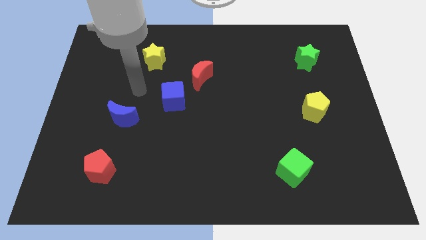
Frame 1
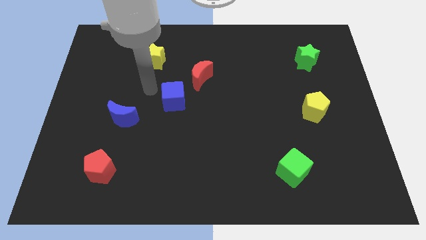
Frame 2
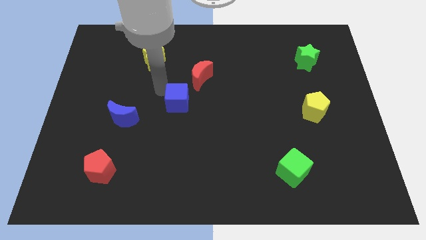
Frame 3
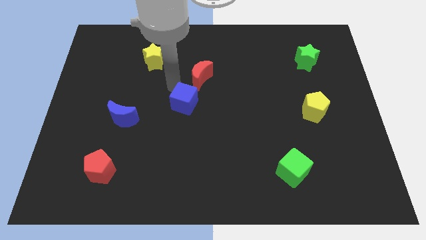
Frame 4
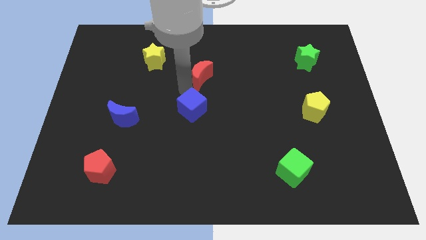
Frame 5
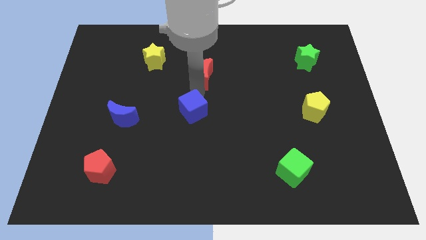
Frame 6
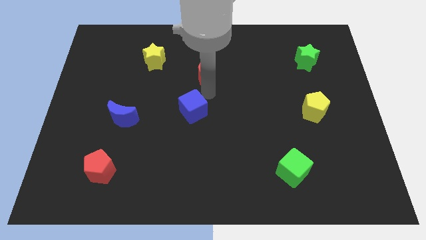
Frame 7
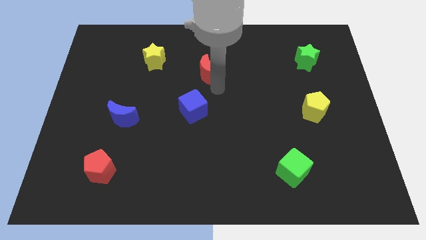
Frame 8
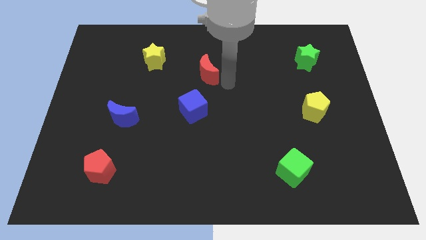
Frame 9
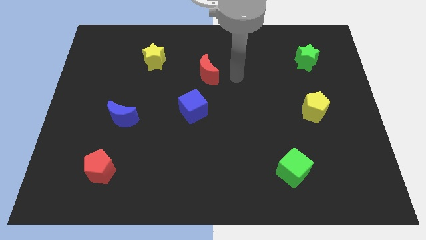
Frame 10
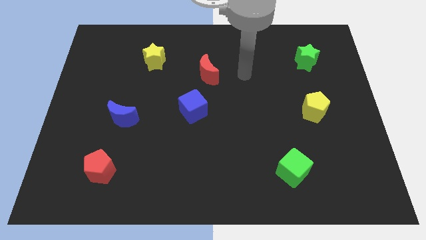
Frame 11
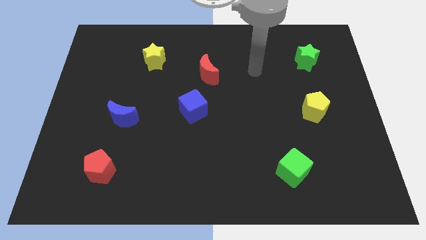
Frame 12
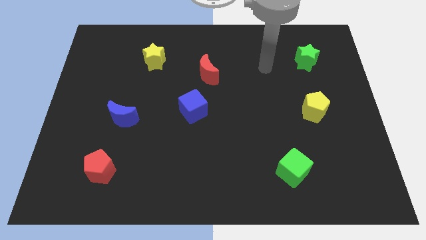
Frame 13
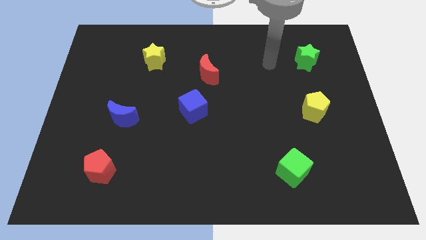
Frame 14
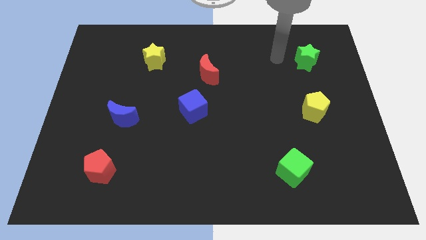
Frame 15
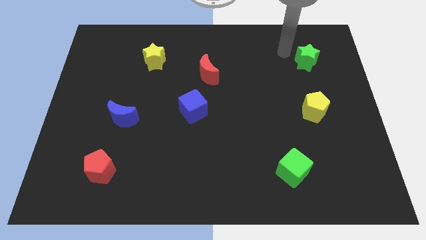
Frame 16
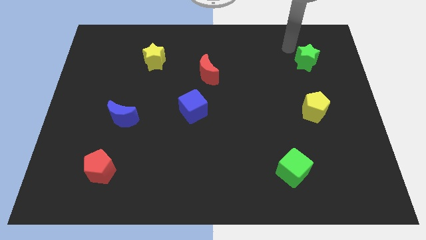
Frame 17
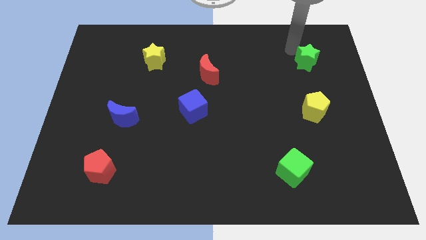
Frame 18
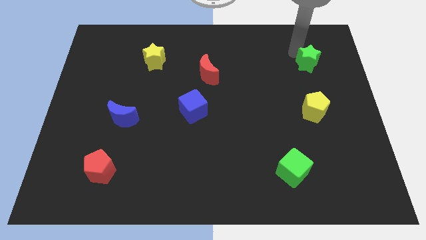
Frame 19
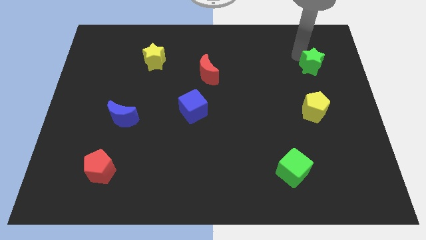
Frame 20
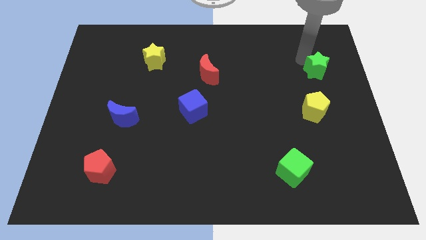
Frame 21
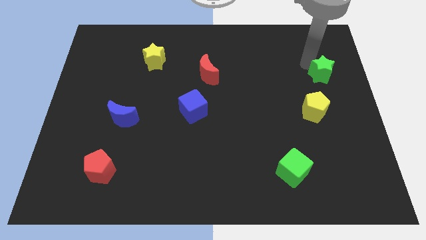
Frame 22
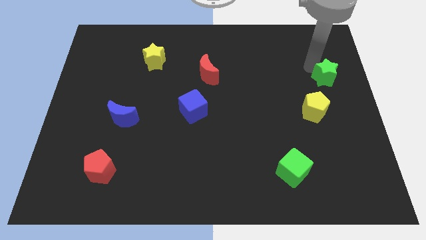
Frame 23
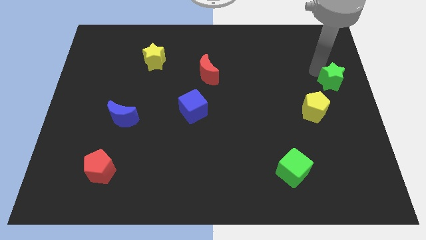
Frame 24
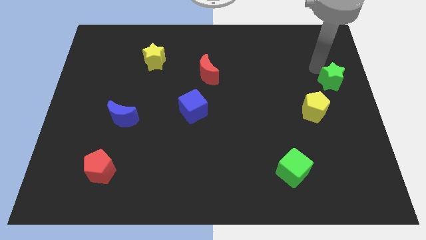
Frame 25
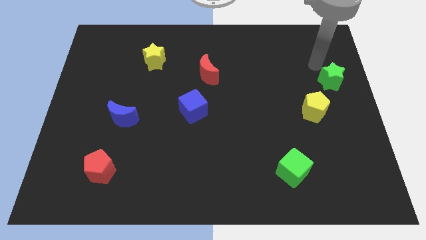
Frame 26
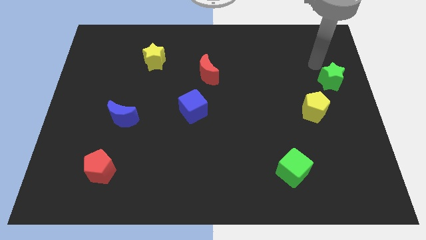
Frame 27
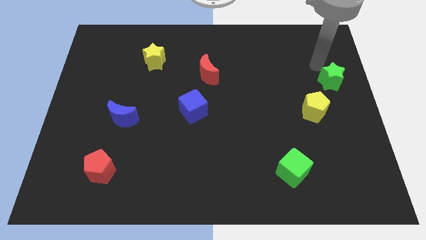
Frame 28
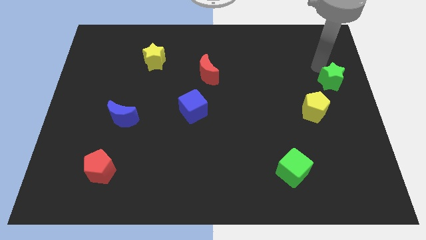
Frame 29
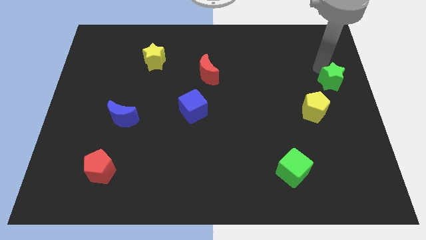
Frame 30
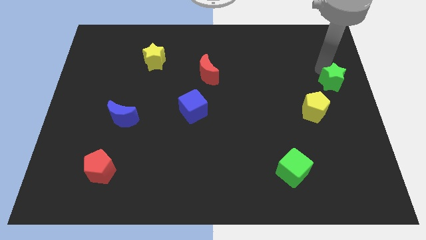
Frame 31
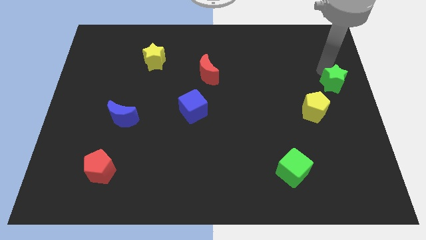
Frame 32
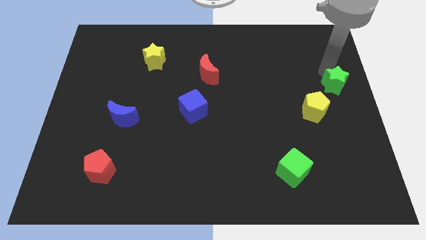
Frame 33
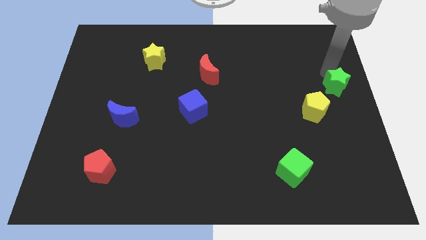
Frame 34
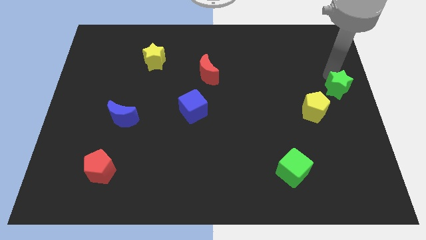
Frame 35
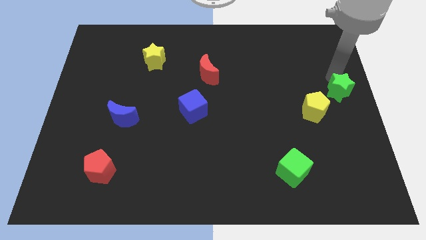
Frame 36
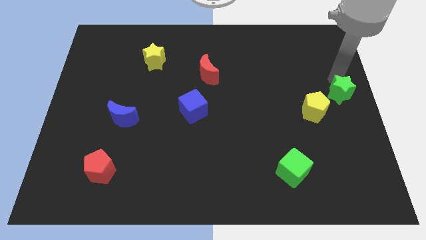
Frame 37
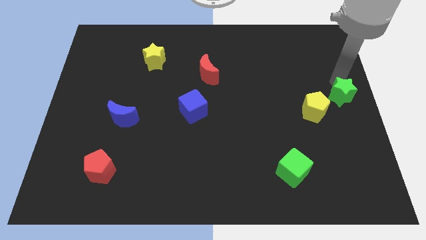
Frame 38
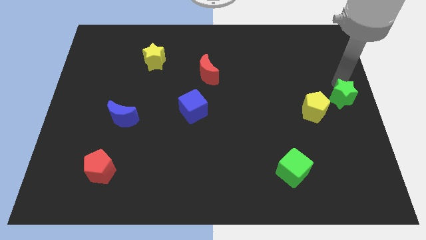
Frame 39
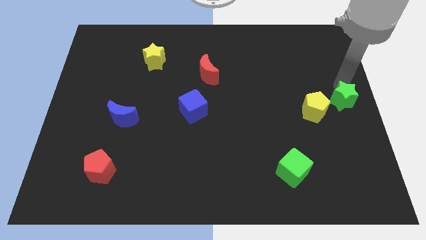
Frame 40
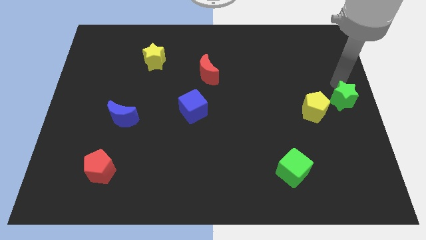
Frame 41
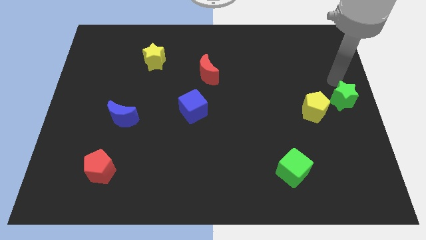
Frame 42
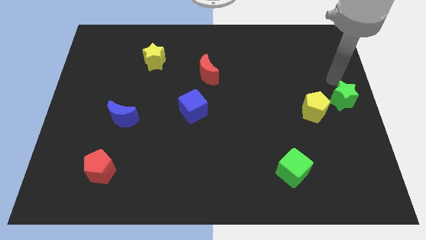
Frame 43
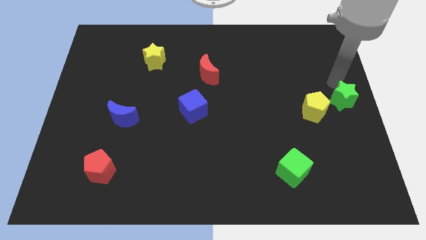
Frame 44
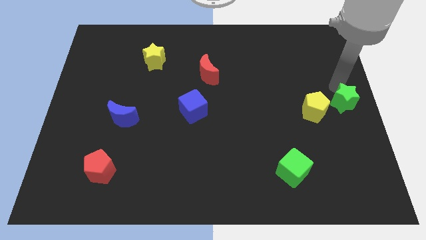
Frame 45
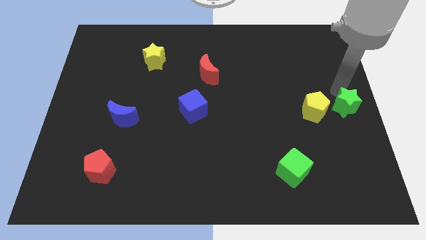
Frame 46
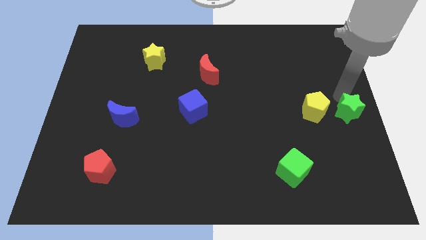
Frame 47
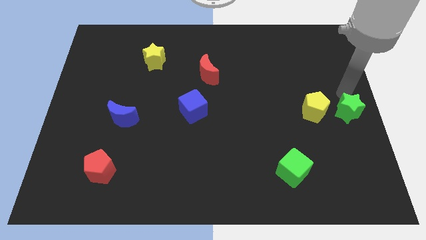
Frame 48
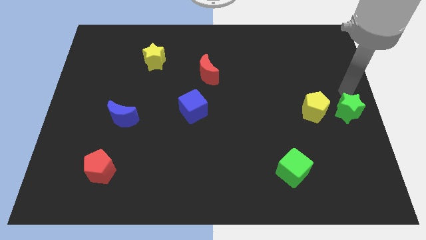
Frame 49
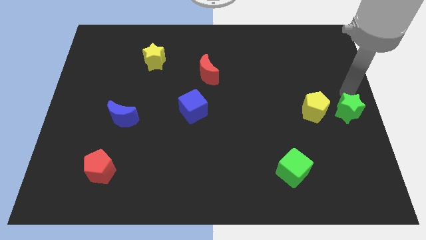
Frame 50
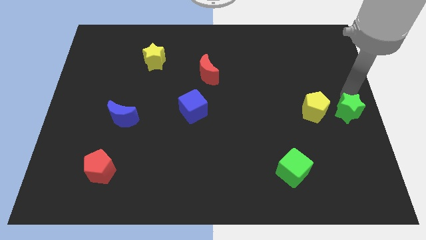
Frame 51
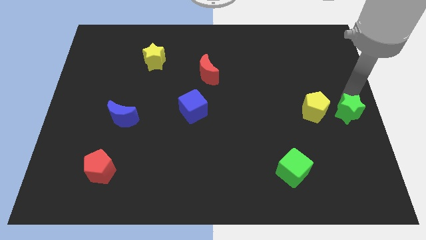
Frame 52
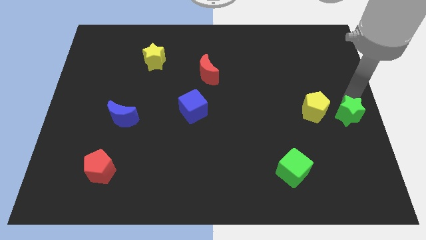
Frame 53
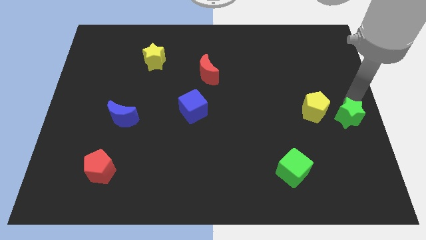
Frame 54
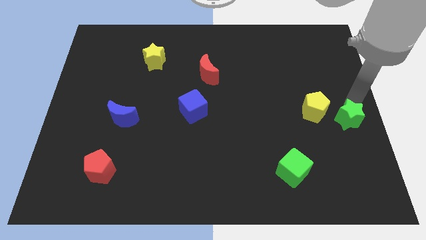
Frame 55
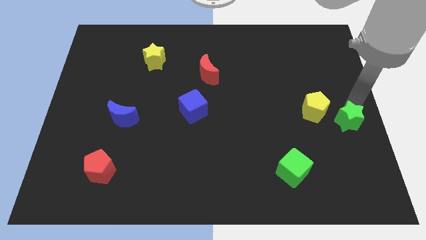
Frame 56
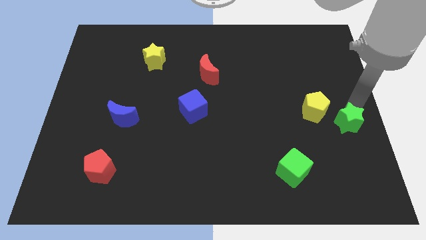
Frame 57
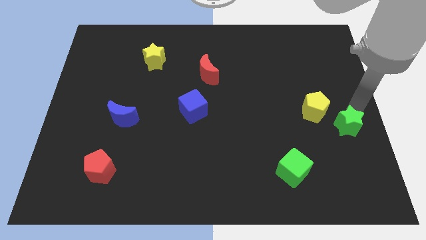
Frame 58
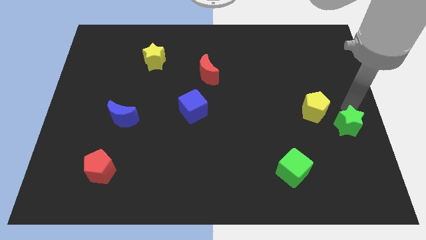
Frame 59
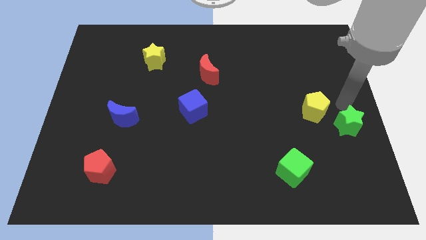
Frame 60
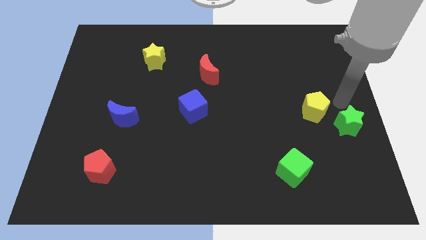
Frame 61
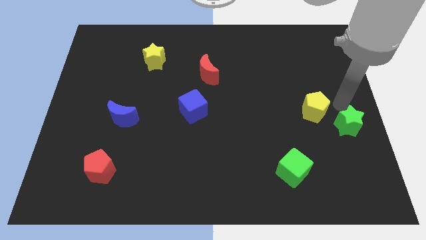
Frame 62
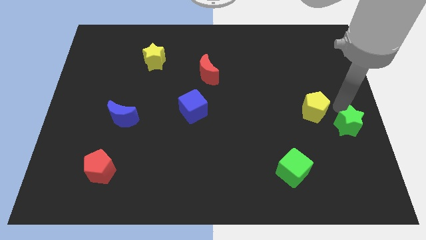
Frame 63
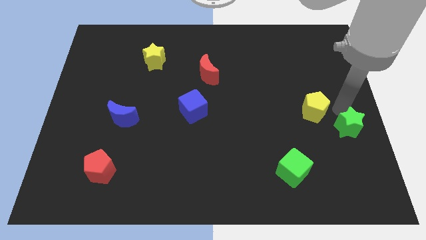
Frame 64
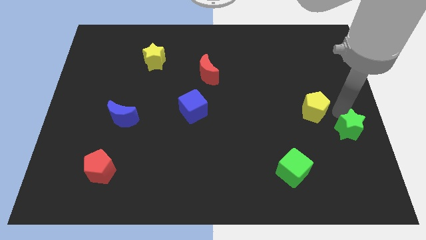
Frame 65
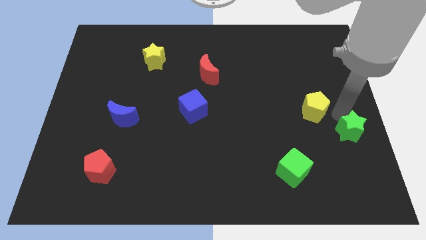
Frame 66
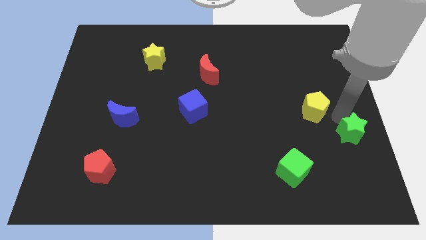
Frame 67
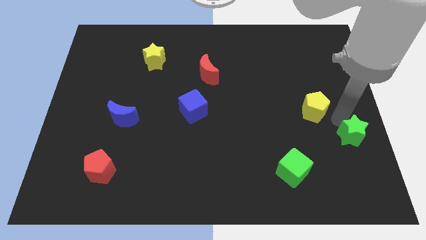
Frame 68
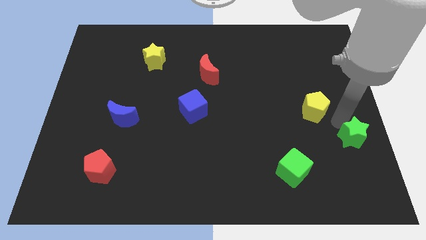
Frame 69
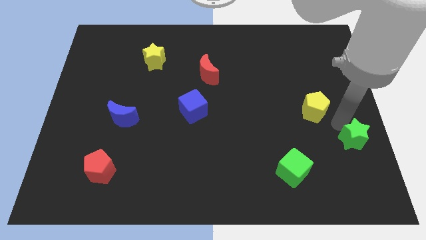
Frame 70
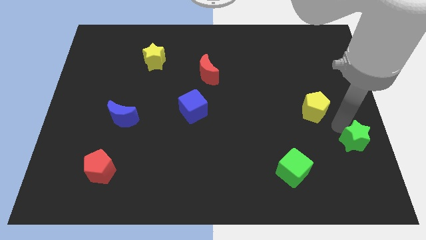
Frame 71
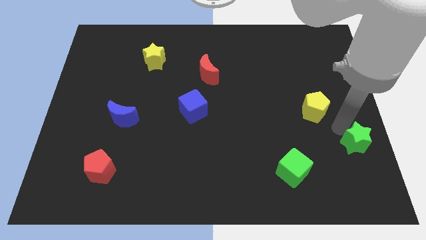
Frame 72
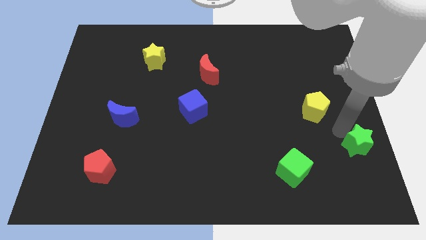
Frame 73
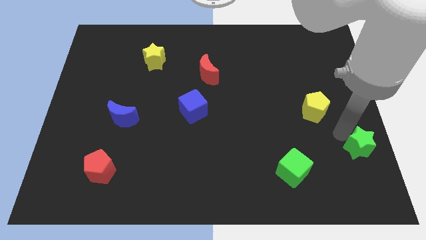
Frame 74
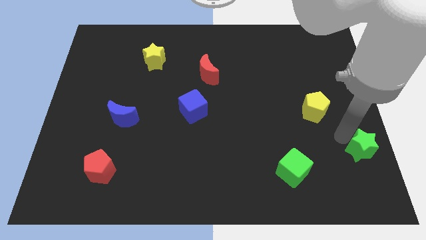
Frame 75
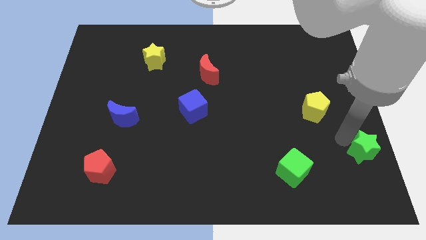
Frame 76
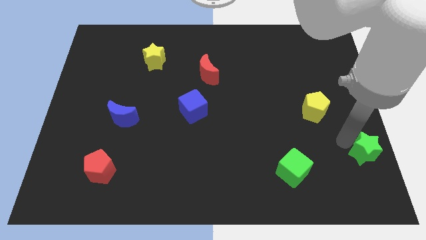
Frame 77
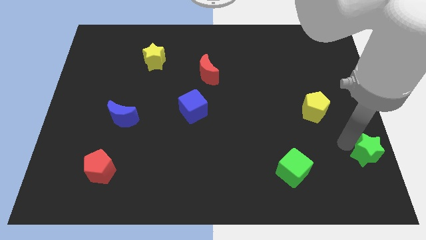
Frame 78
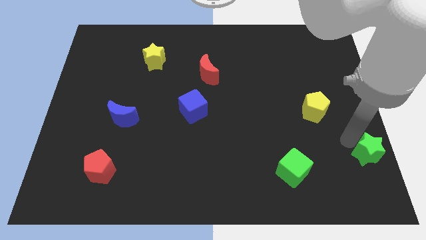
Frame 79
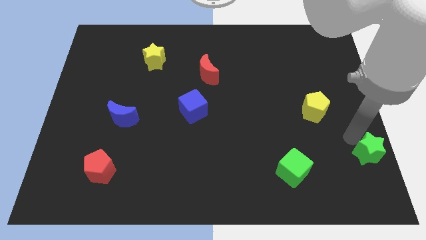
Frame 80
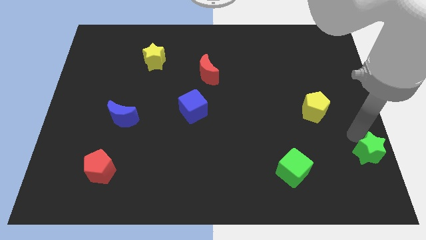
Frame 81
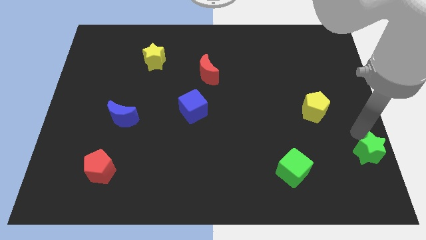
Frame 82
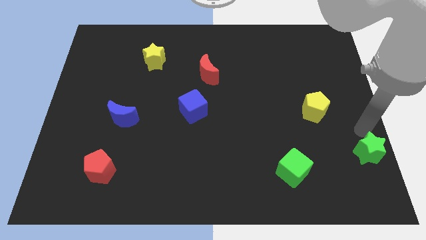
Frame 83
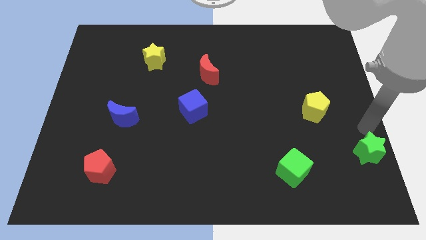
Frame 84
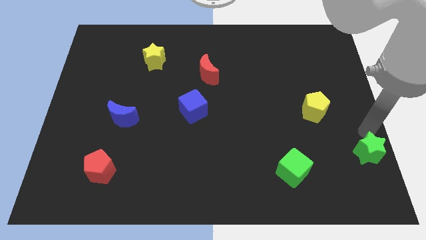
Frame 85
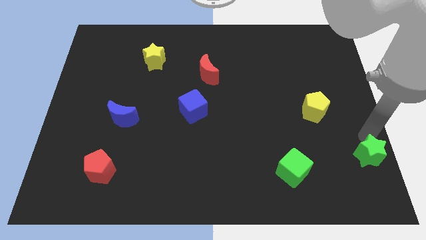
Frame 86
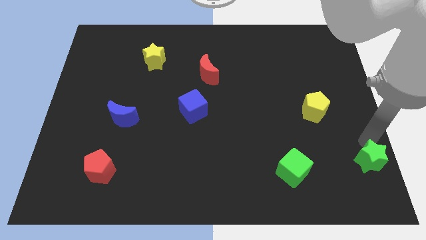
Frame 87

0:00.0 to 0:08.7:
push the green star to the bottom right of the board
